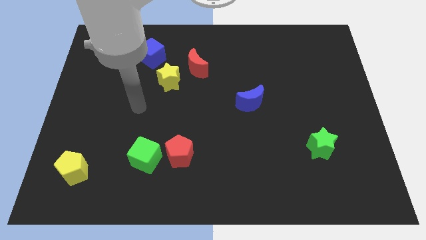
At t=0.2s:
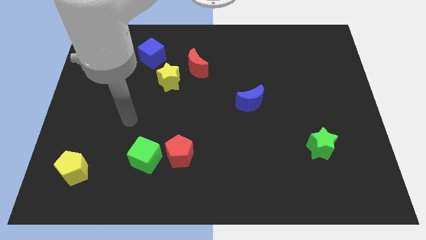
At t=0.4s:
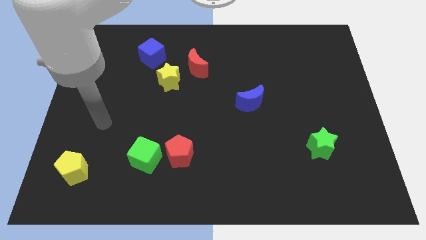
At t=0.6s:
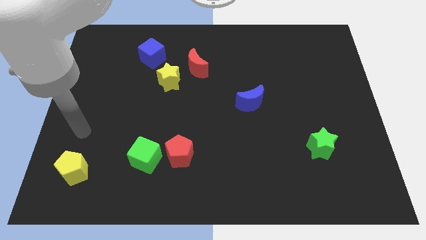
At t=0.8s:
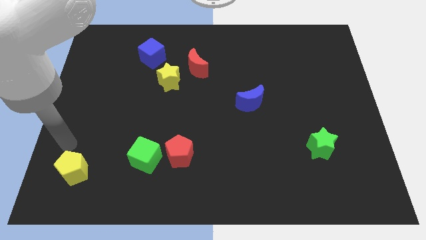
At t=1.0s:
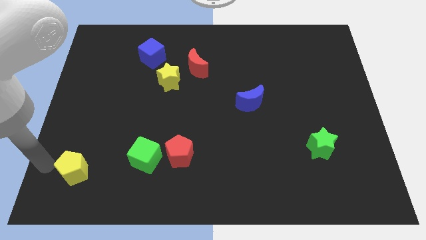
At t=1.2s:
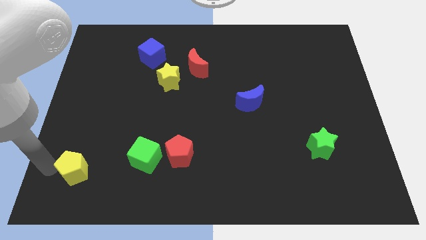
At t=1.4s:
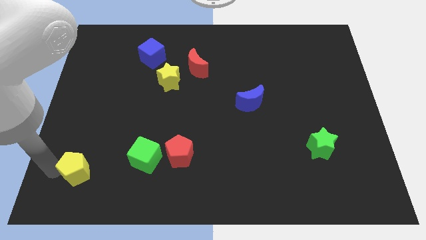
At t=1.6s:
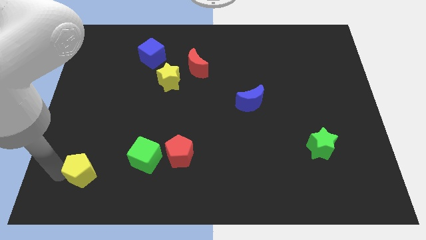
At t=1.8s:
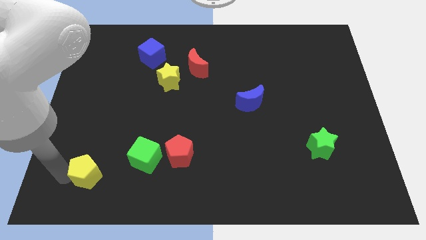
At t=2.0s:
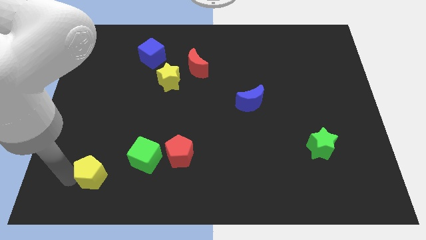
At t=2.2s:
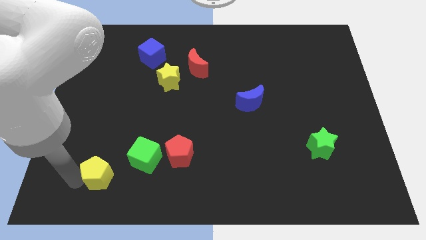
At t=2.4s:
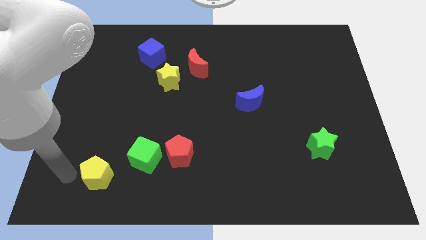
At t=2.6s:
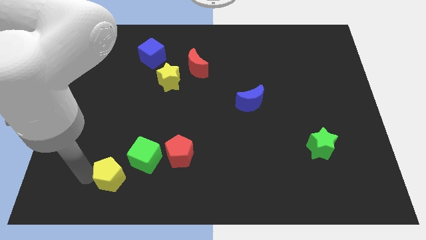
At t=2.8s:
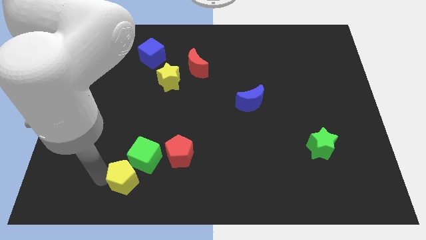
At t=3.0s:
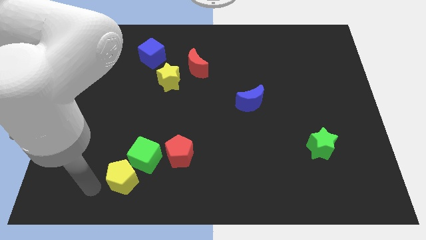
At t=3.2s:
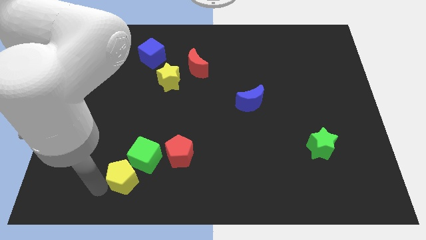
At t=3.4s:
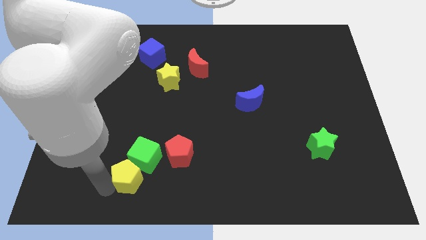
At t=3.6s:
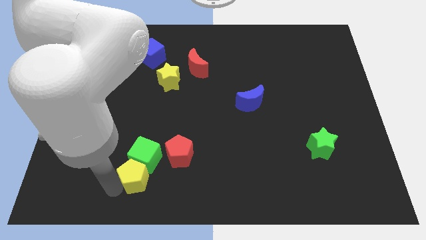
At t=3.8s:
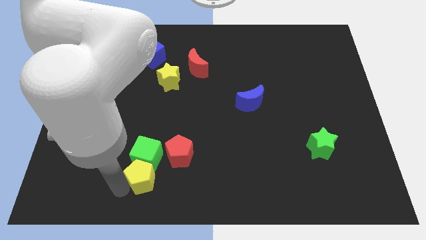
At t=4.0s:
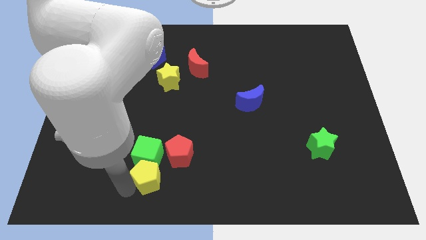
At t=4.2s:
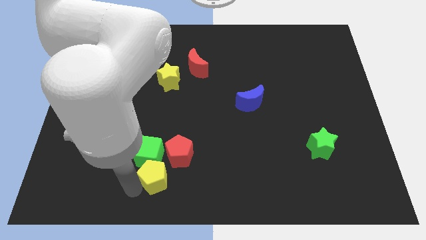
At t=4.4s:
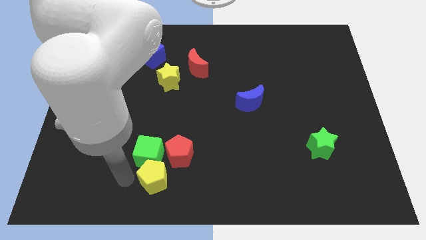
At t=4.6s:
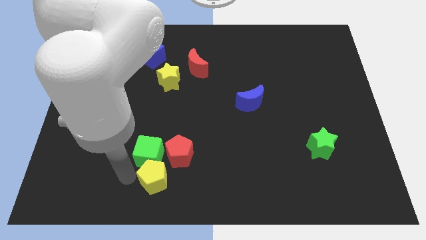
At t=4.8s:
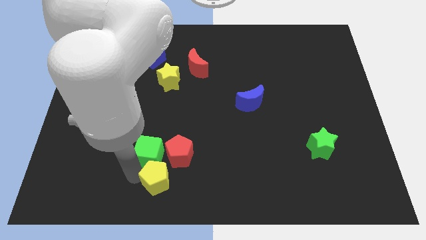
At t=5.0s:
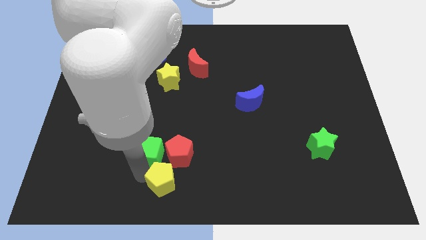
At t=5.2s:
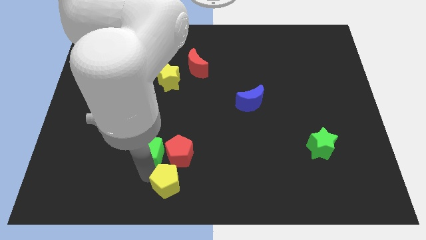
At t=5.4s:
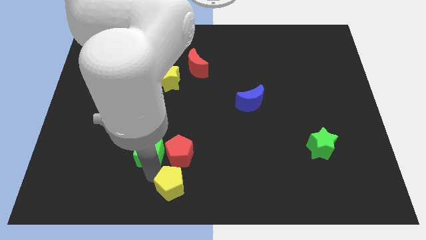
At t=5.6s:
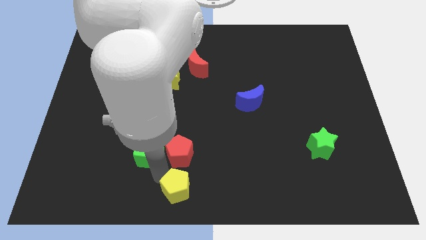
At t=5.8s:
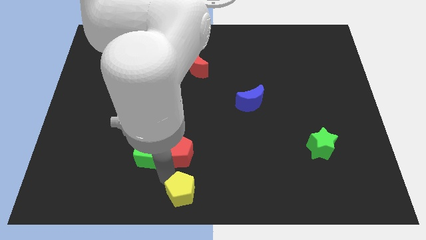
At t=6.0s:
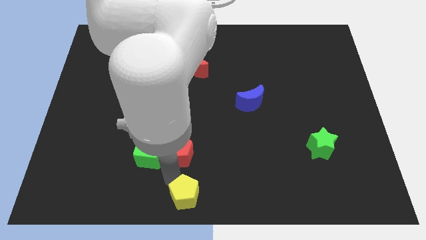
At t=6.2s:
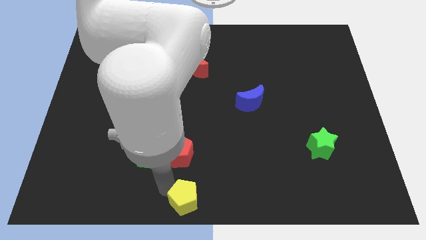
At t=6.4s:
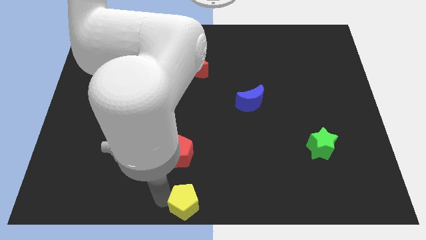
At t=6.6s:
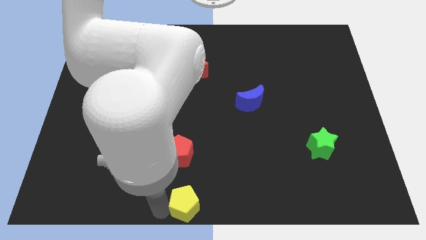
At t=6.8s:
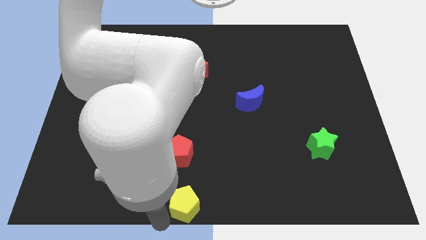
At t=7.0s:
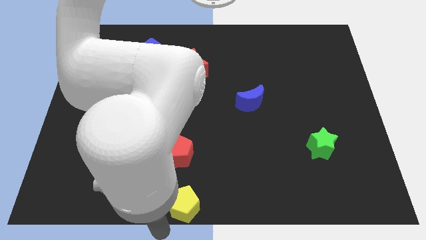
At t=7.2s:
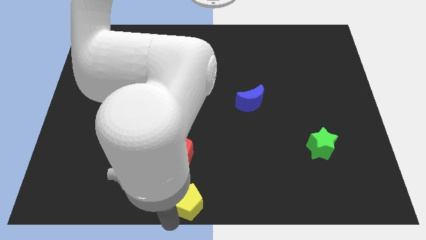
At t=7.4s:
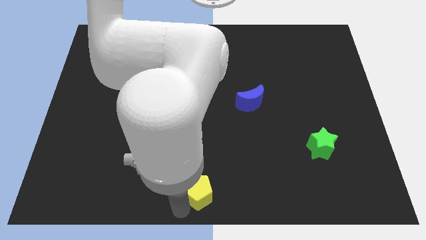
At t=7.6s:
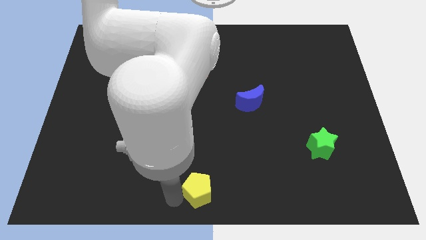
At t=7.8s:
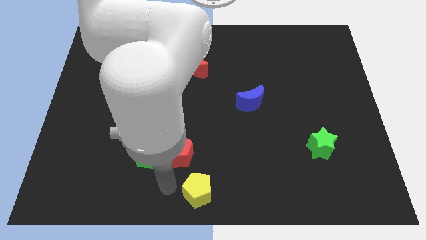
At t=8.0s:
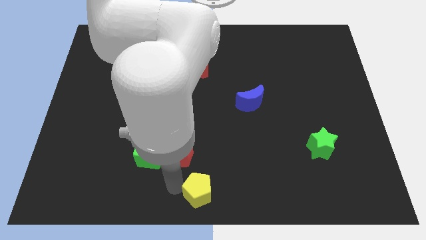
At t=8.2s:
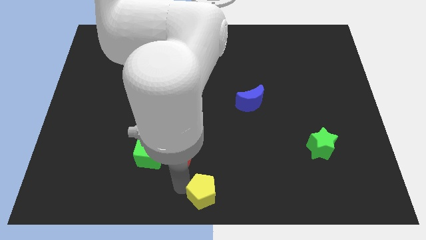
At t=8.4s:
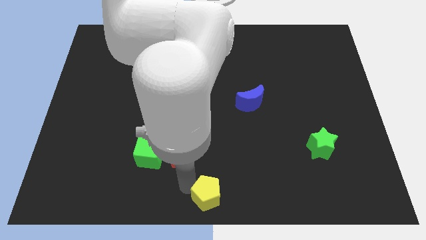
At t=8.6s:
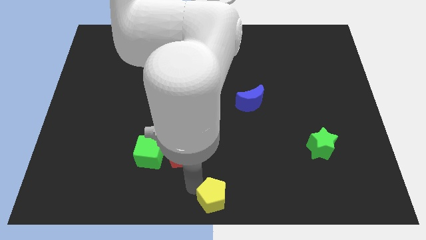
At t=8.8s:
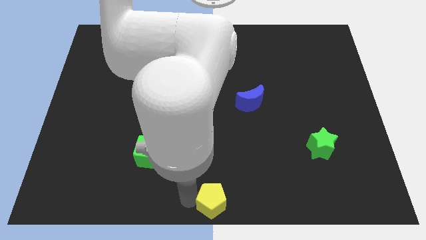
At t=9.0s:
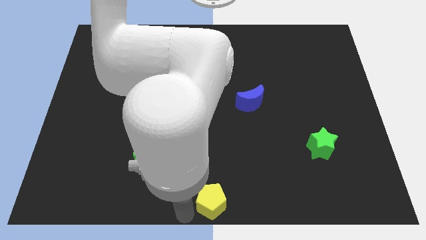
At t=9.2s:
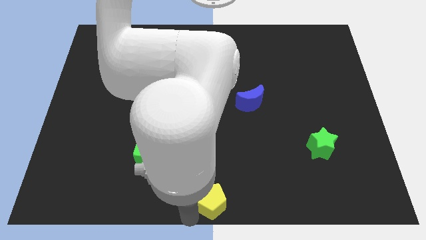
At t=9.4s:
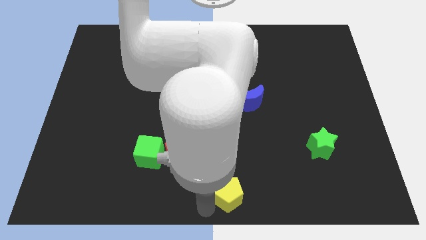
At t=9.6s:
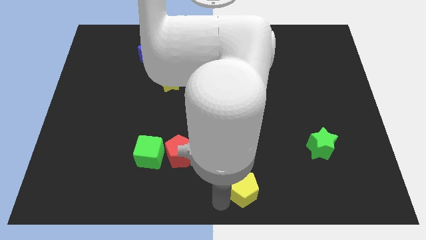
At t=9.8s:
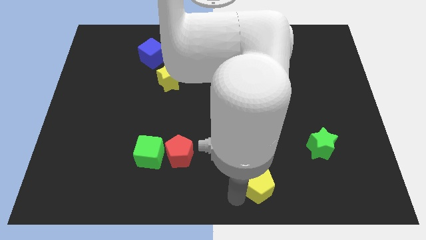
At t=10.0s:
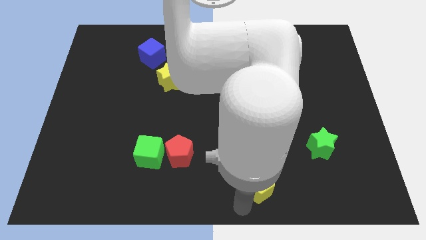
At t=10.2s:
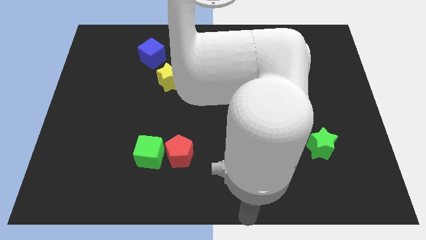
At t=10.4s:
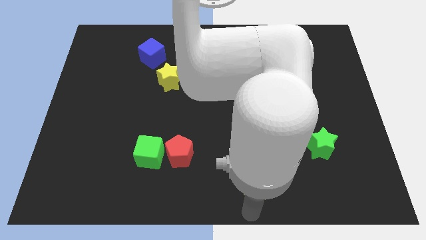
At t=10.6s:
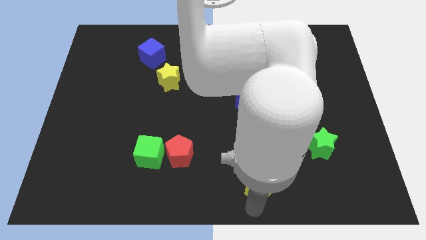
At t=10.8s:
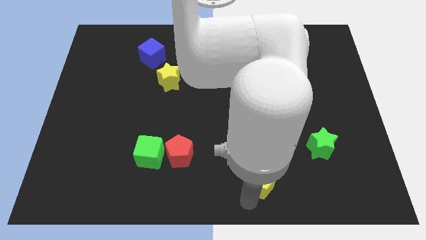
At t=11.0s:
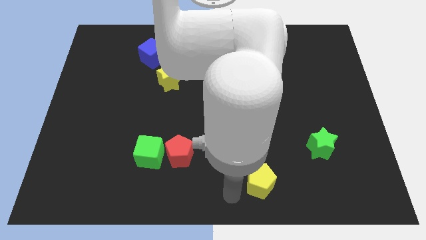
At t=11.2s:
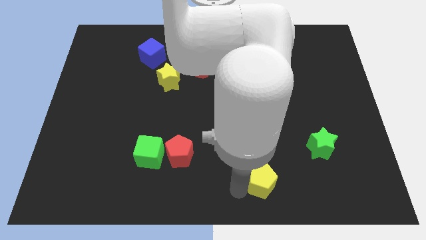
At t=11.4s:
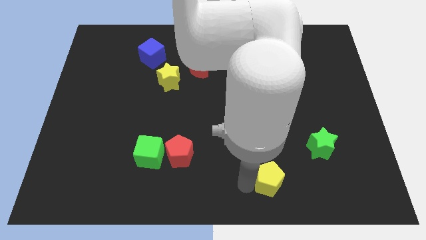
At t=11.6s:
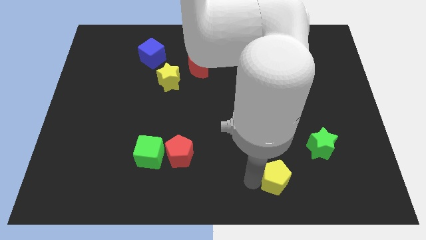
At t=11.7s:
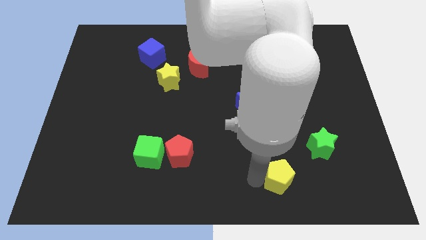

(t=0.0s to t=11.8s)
move the yellow pentagon diagonally down and to the left of the green star

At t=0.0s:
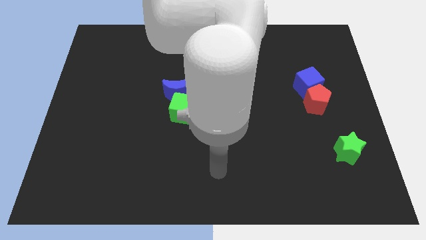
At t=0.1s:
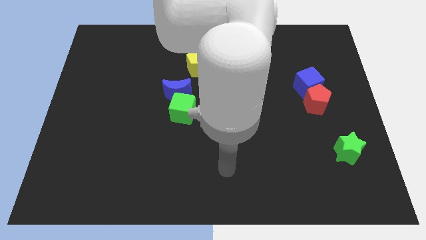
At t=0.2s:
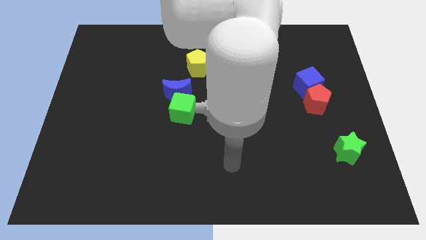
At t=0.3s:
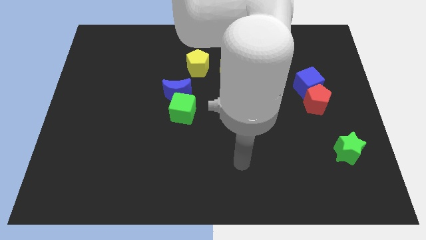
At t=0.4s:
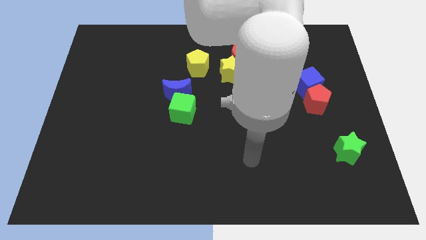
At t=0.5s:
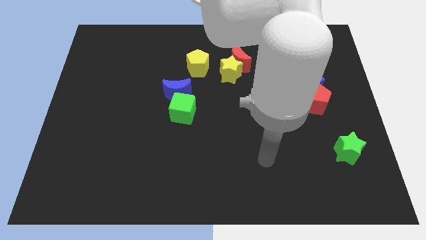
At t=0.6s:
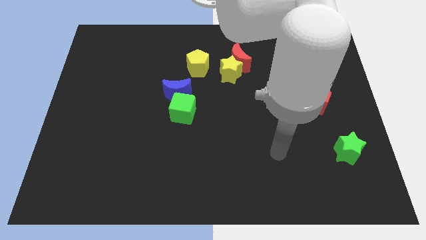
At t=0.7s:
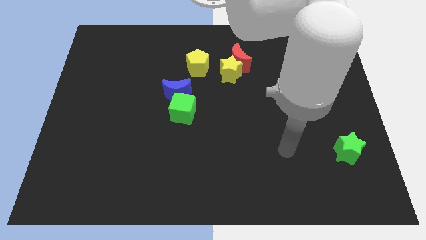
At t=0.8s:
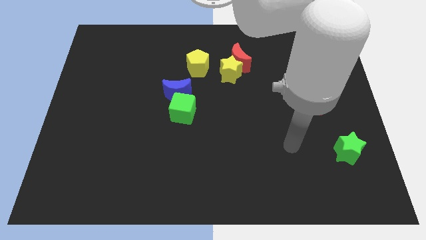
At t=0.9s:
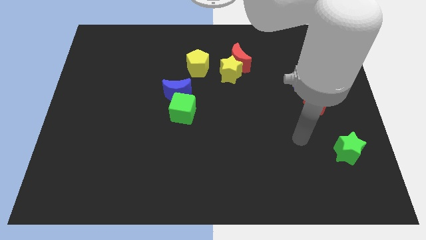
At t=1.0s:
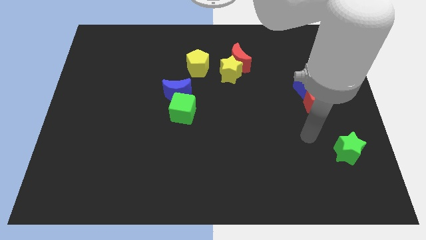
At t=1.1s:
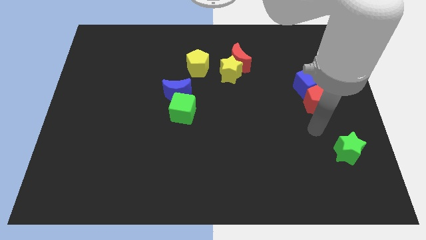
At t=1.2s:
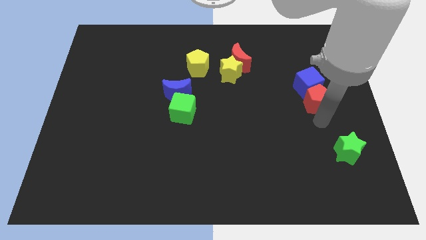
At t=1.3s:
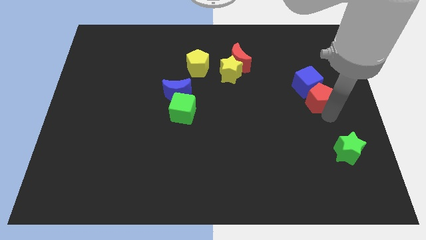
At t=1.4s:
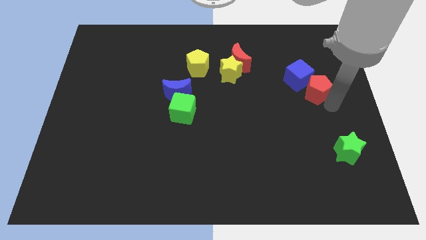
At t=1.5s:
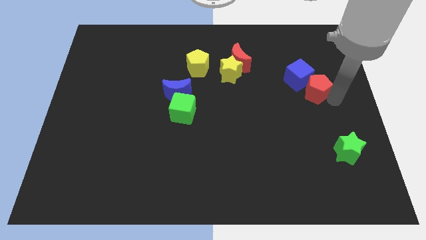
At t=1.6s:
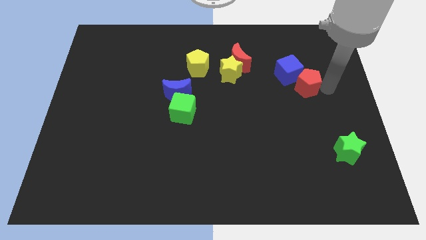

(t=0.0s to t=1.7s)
move the blue cube to the right of the yellow star
